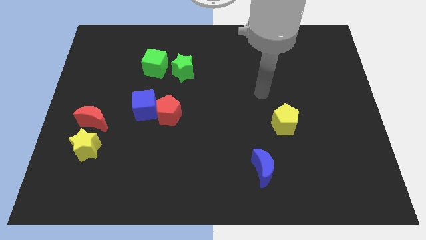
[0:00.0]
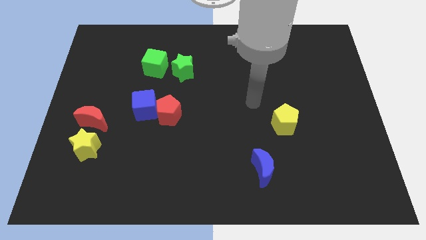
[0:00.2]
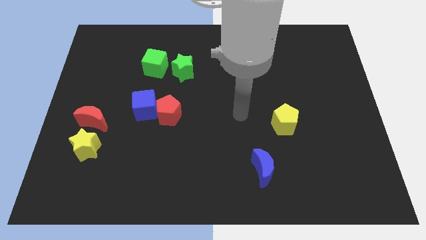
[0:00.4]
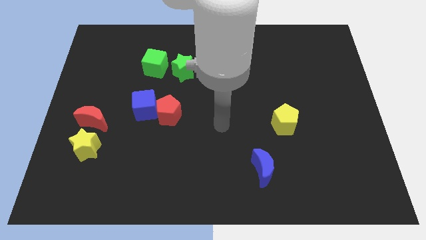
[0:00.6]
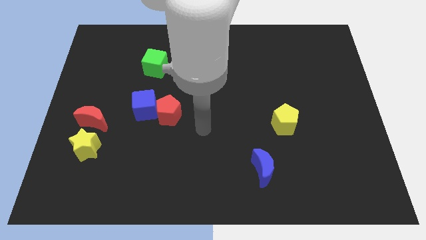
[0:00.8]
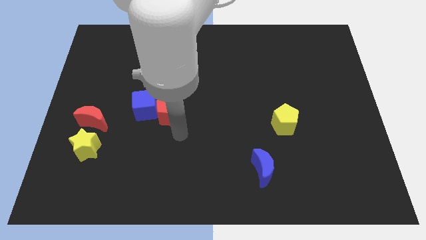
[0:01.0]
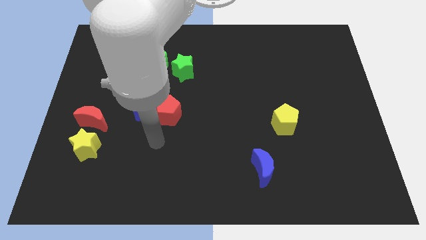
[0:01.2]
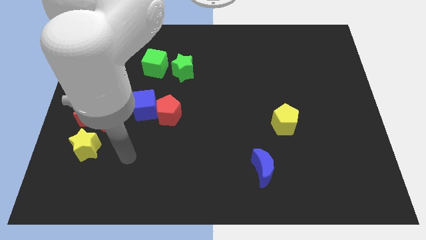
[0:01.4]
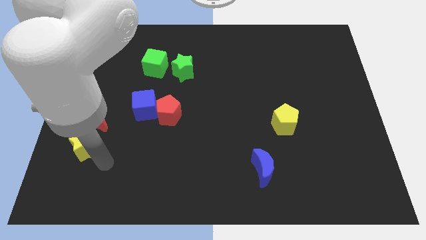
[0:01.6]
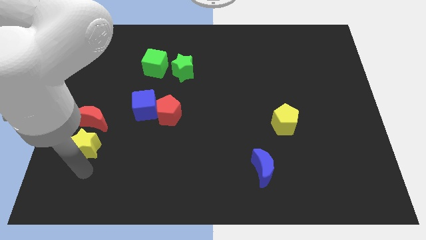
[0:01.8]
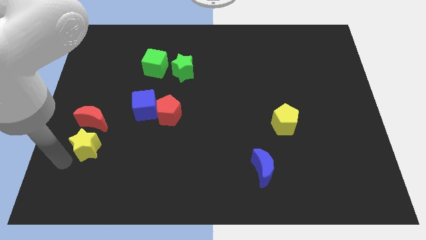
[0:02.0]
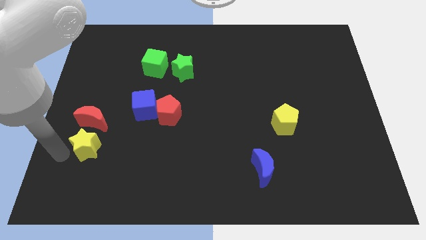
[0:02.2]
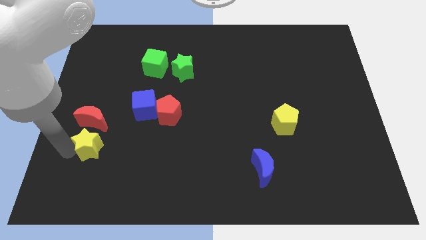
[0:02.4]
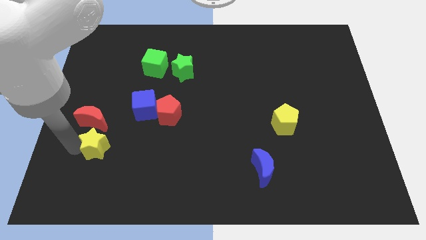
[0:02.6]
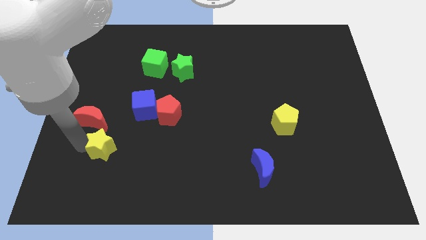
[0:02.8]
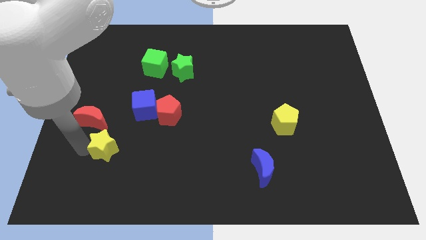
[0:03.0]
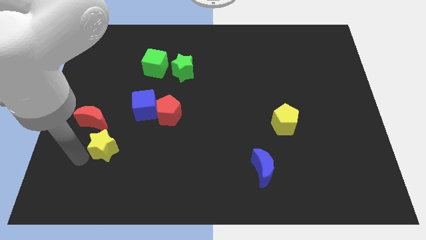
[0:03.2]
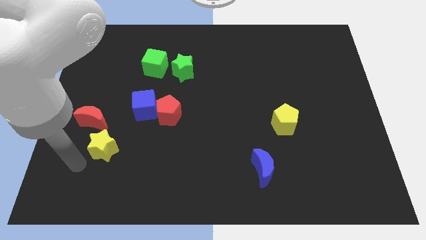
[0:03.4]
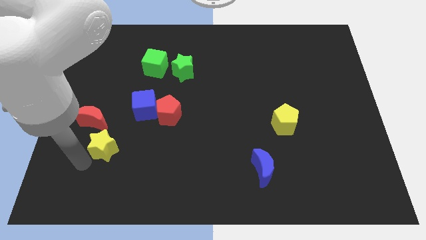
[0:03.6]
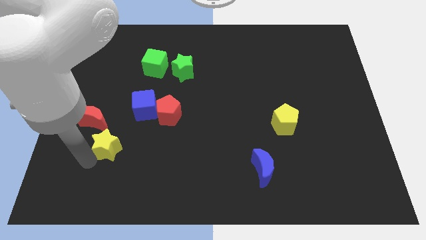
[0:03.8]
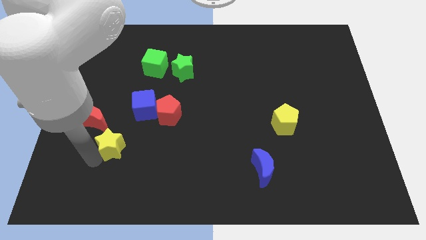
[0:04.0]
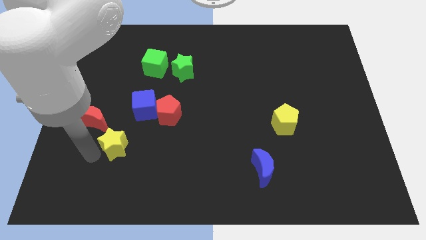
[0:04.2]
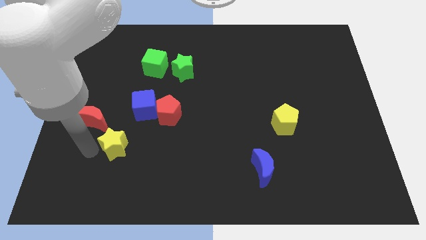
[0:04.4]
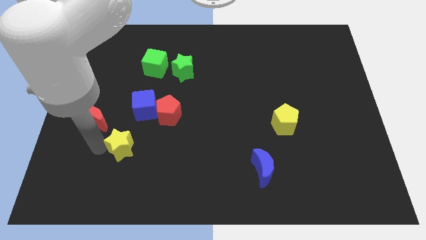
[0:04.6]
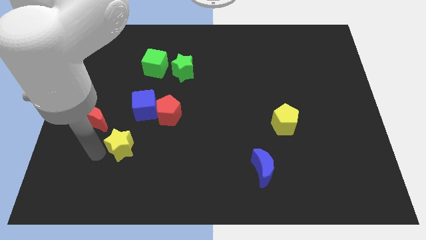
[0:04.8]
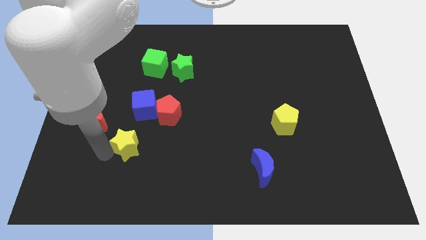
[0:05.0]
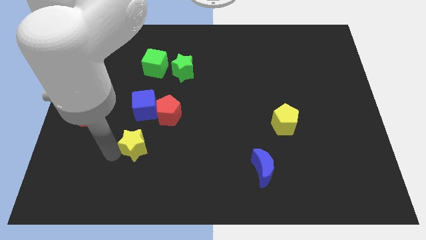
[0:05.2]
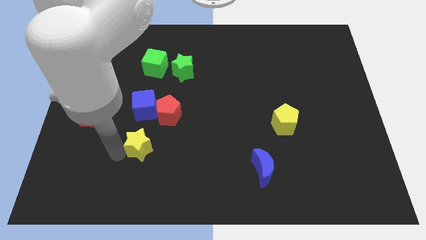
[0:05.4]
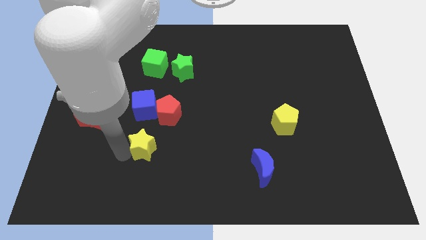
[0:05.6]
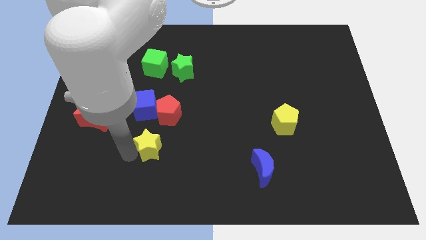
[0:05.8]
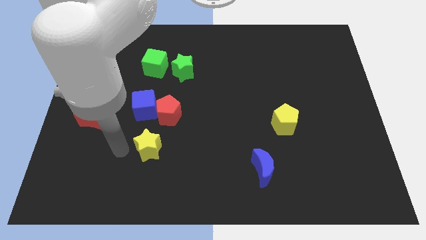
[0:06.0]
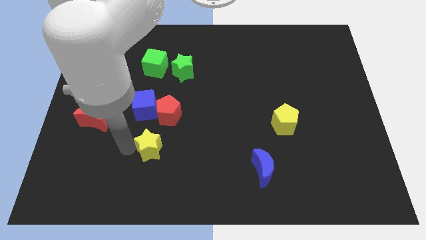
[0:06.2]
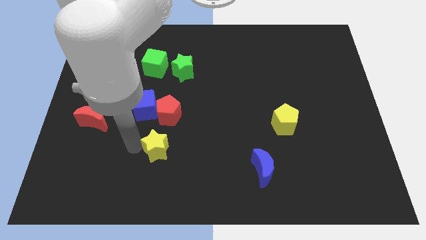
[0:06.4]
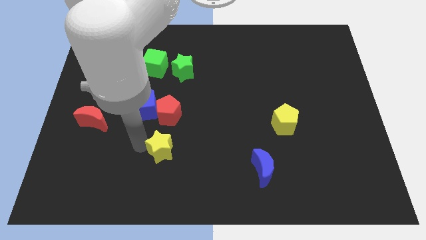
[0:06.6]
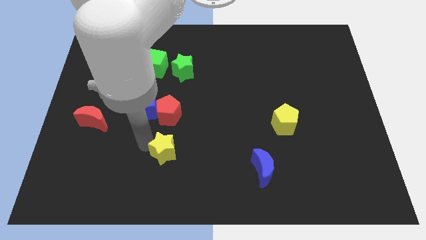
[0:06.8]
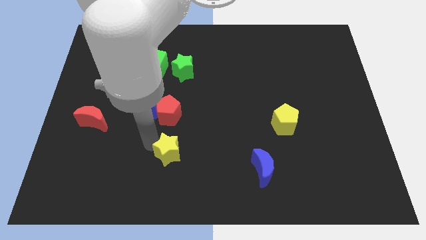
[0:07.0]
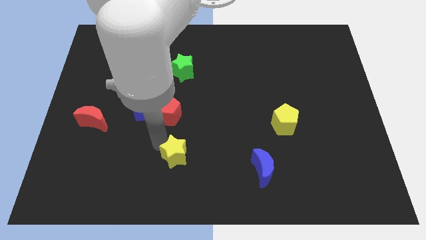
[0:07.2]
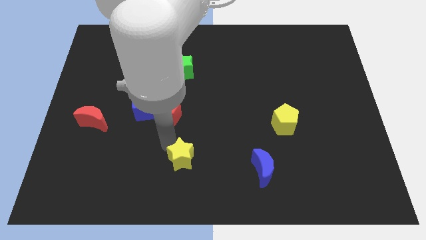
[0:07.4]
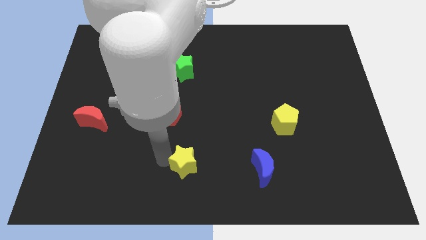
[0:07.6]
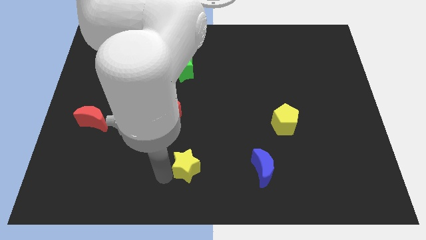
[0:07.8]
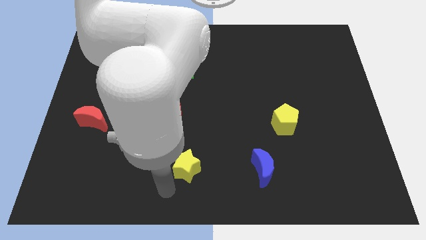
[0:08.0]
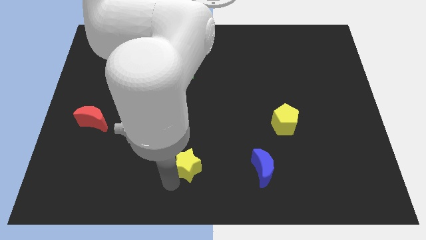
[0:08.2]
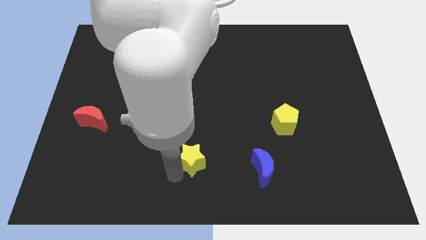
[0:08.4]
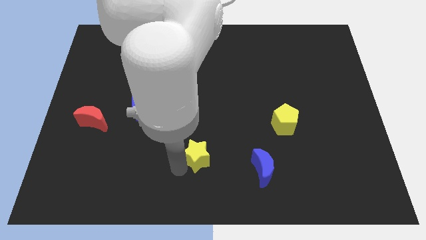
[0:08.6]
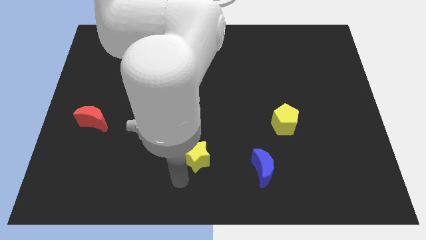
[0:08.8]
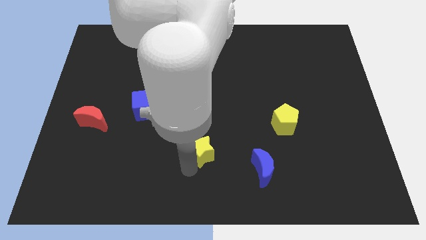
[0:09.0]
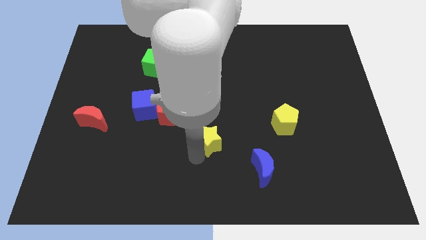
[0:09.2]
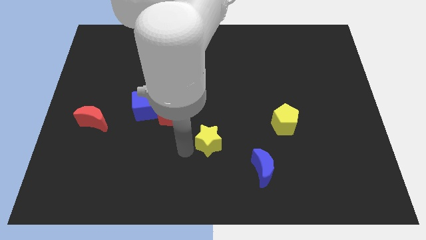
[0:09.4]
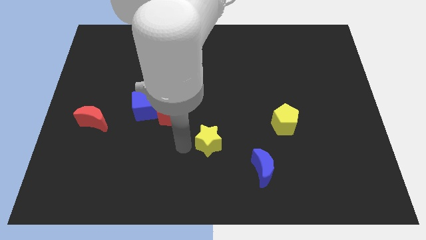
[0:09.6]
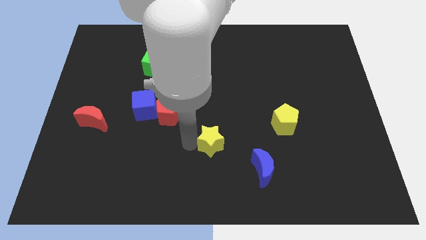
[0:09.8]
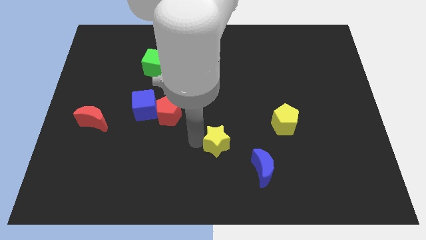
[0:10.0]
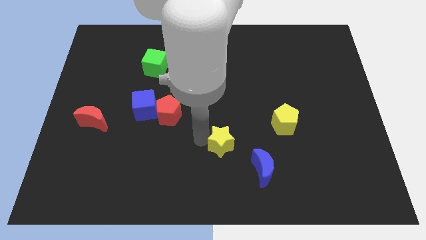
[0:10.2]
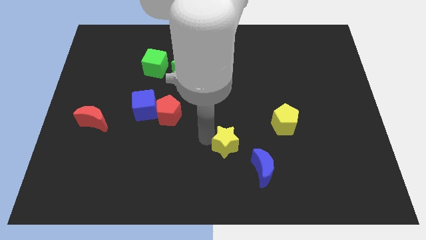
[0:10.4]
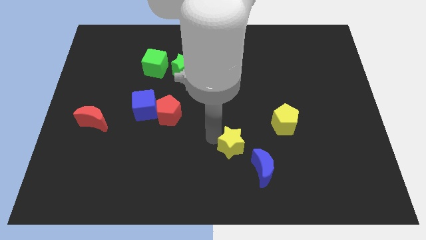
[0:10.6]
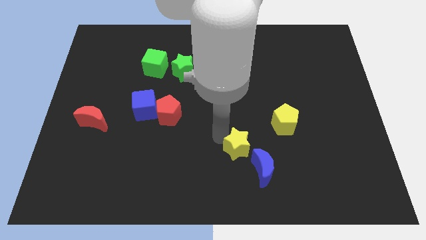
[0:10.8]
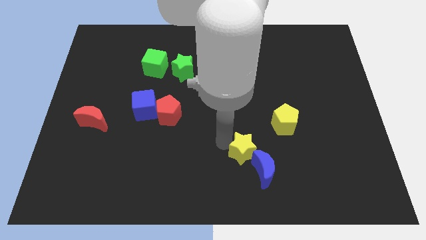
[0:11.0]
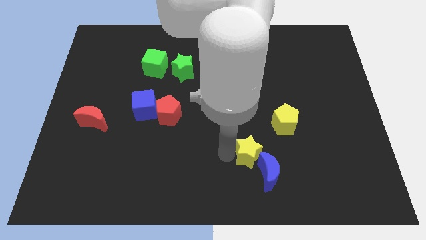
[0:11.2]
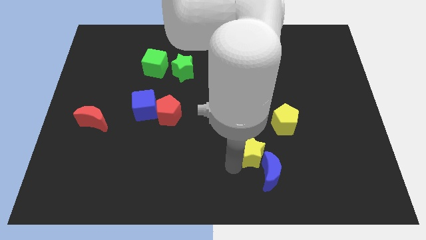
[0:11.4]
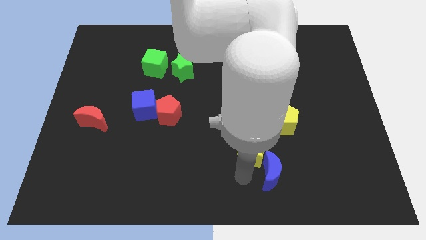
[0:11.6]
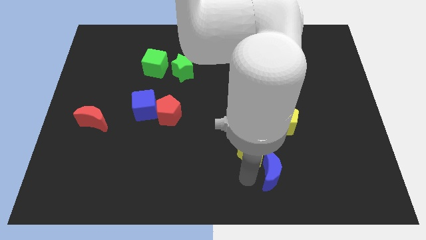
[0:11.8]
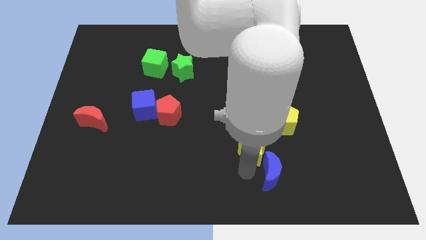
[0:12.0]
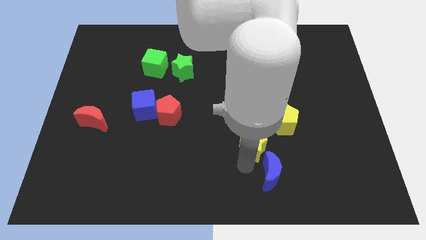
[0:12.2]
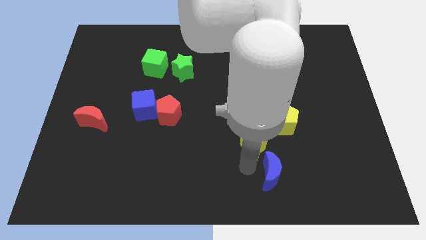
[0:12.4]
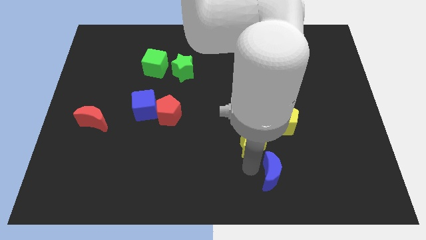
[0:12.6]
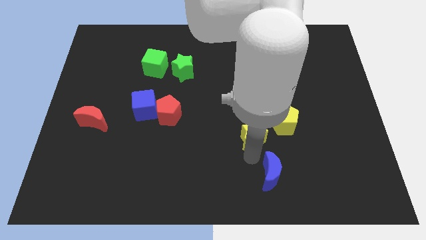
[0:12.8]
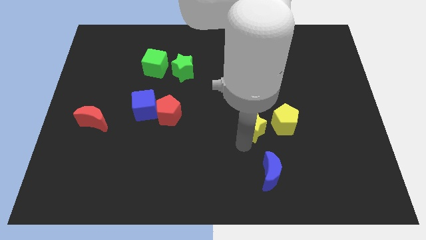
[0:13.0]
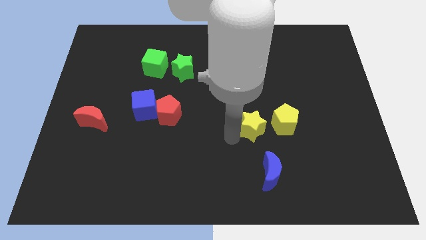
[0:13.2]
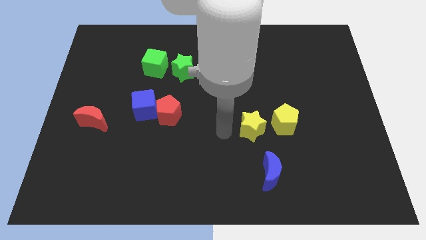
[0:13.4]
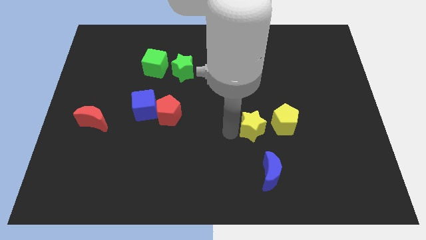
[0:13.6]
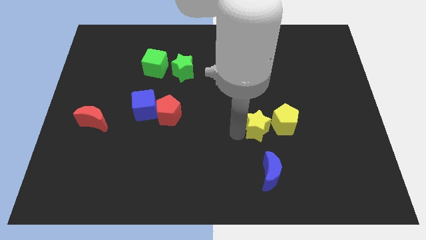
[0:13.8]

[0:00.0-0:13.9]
put the yellow star towards the yellow pentagon

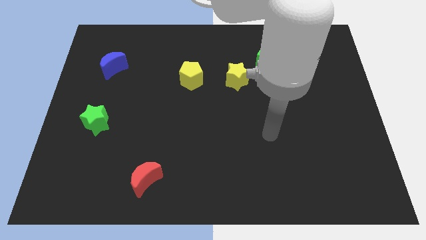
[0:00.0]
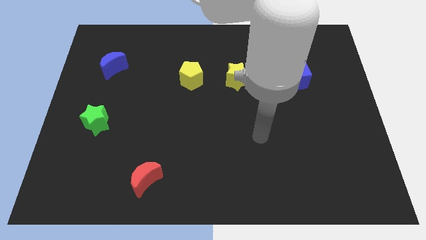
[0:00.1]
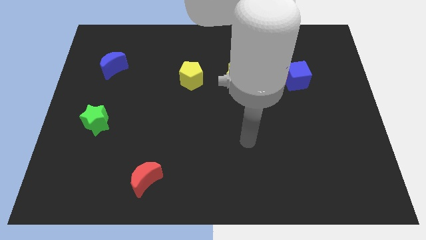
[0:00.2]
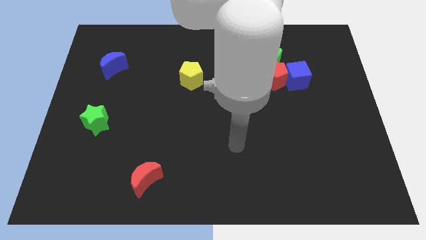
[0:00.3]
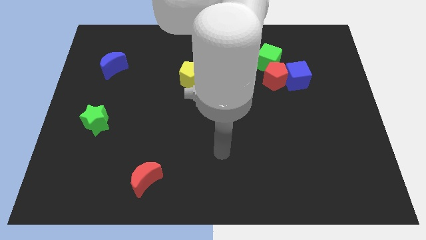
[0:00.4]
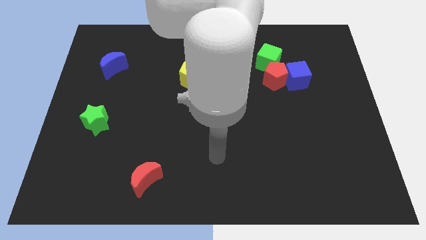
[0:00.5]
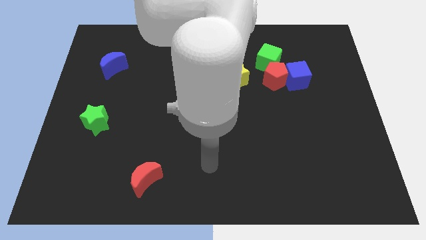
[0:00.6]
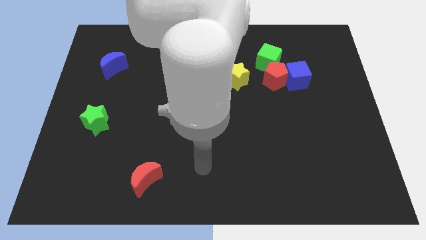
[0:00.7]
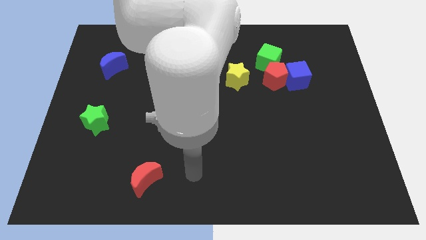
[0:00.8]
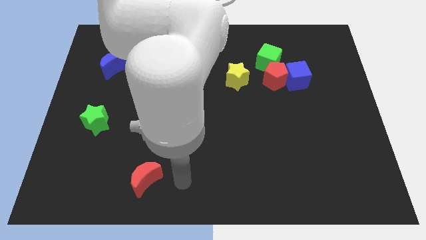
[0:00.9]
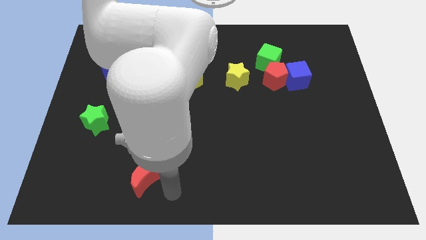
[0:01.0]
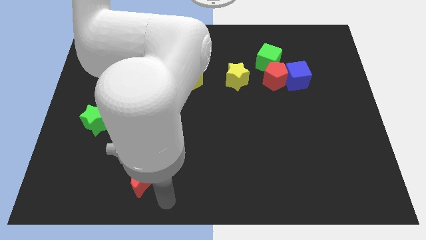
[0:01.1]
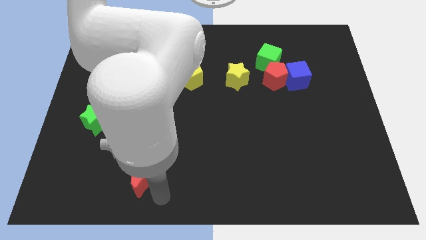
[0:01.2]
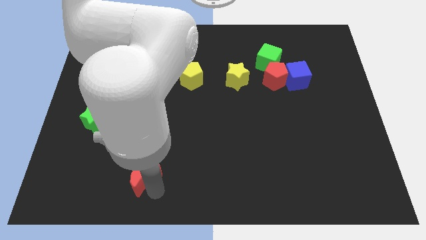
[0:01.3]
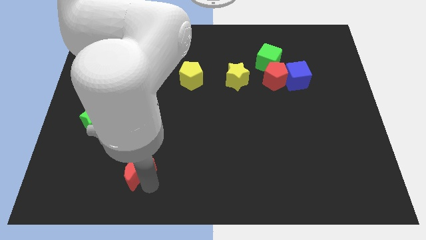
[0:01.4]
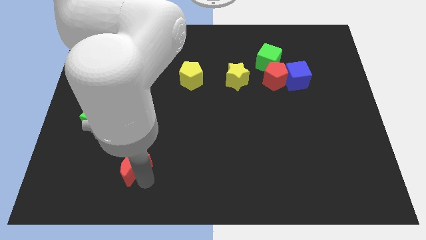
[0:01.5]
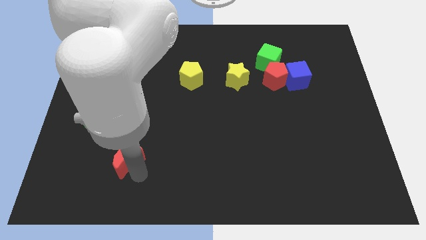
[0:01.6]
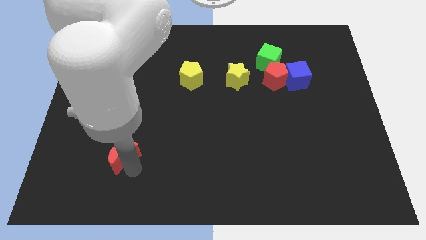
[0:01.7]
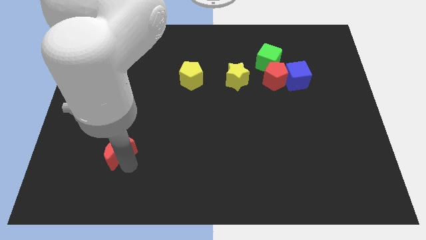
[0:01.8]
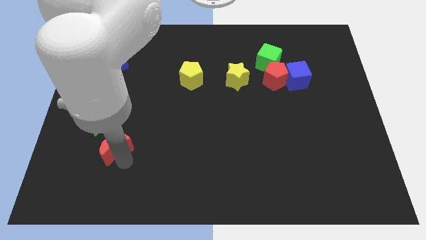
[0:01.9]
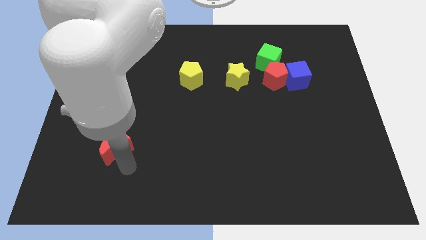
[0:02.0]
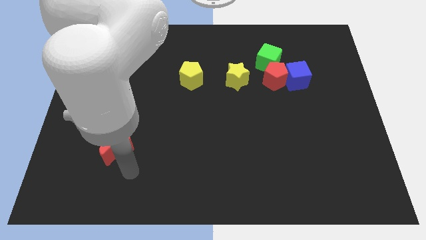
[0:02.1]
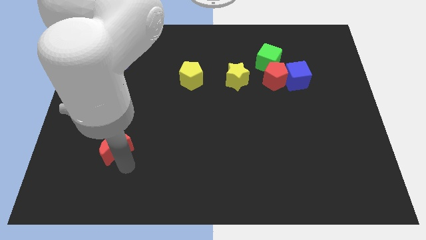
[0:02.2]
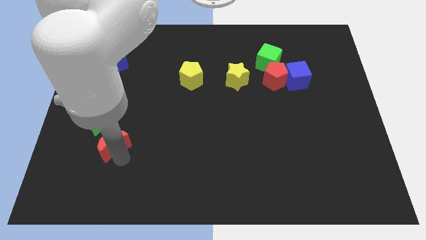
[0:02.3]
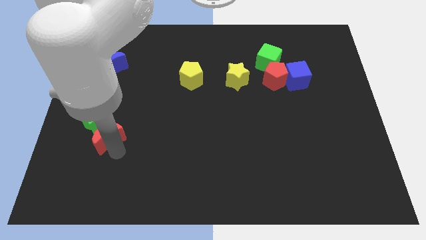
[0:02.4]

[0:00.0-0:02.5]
slide the red moon next to the green star
